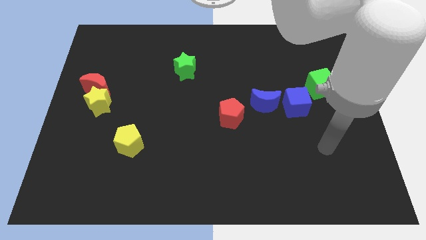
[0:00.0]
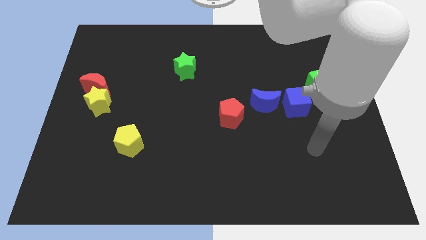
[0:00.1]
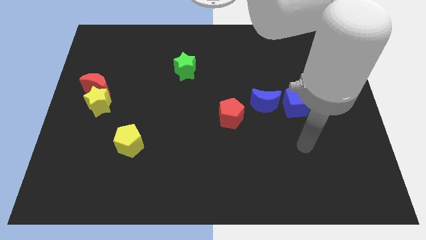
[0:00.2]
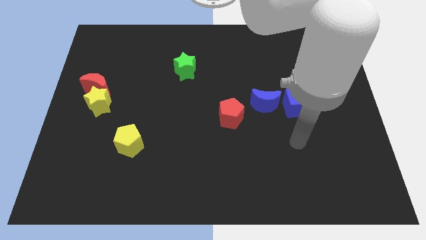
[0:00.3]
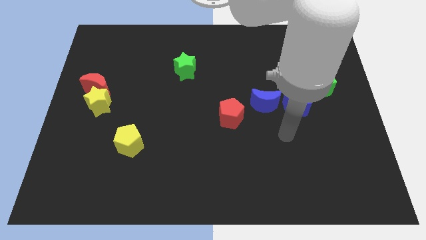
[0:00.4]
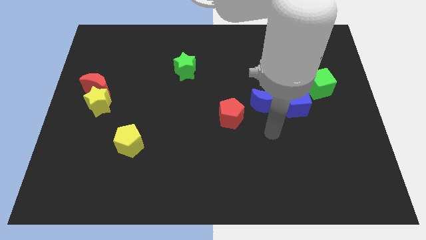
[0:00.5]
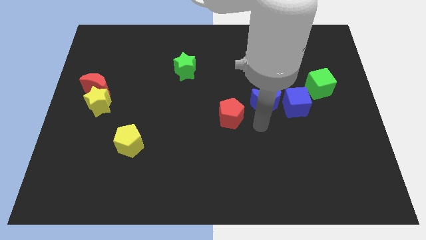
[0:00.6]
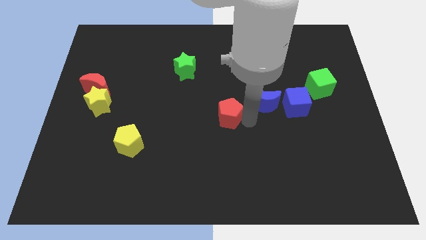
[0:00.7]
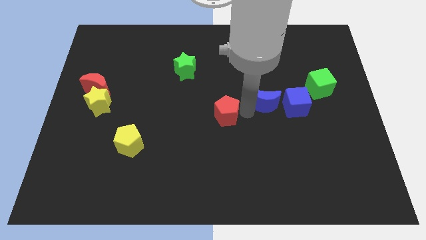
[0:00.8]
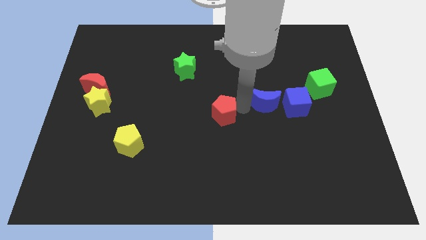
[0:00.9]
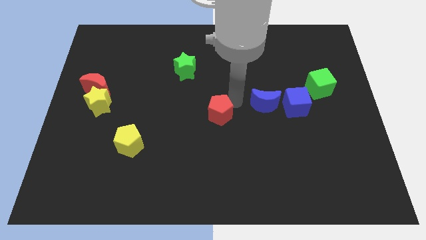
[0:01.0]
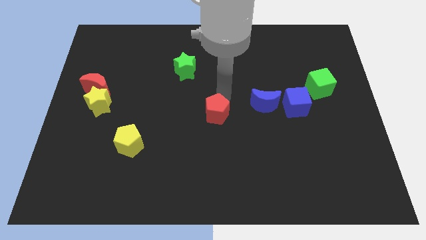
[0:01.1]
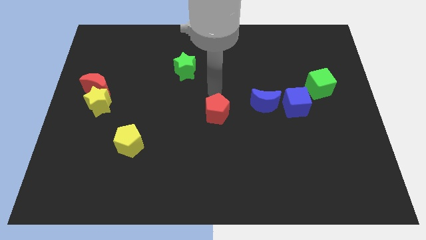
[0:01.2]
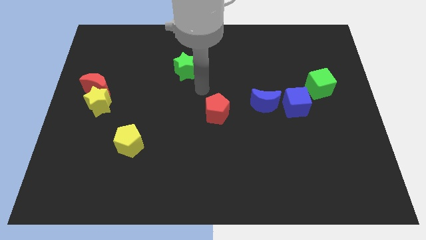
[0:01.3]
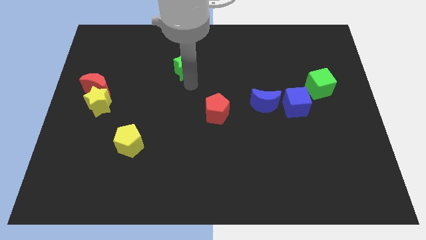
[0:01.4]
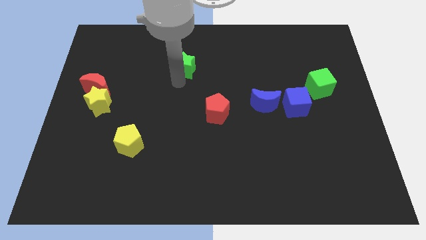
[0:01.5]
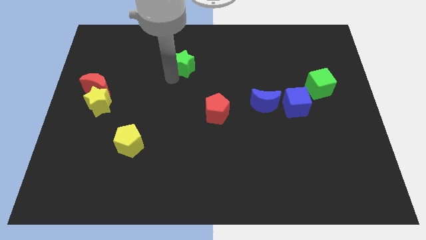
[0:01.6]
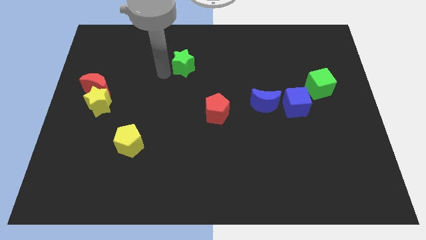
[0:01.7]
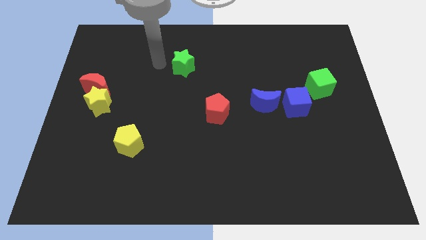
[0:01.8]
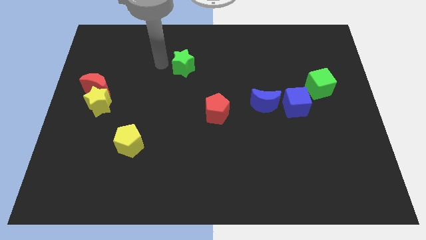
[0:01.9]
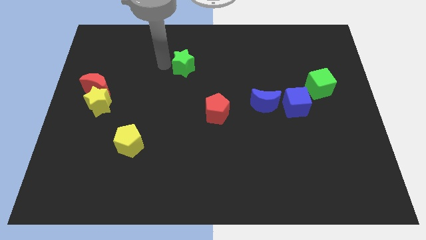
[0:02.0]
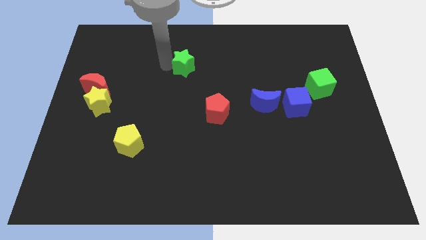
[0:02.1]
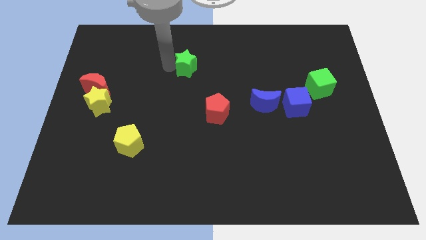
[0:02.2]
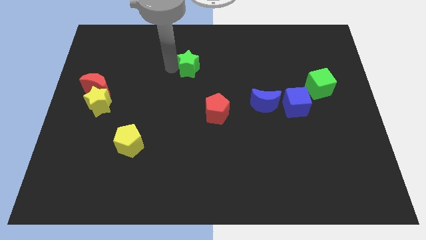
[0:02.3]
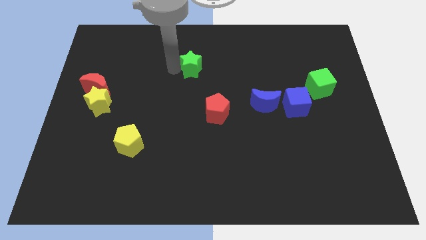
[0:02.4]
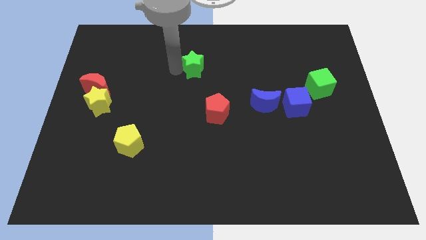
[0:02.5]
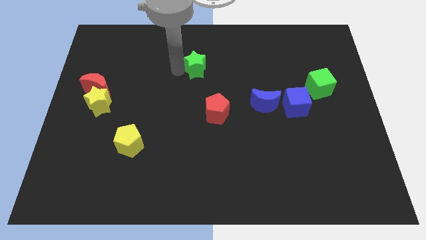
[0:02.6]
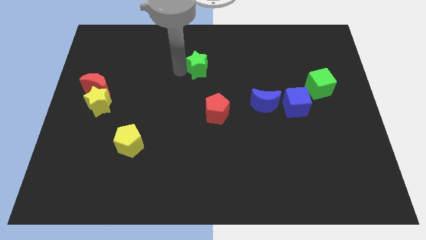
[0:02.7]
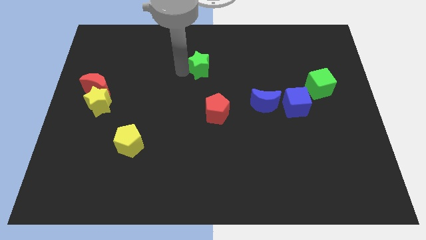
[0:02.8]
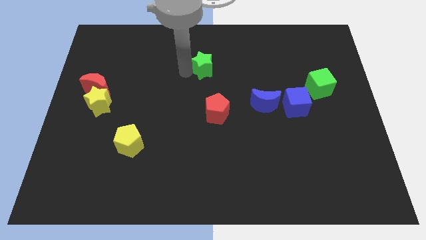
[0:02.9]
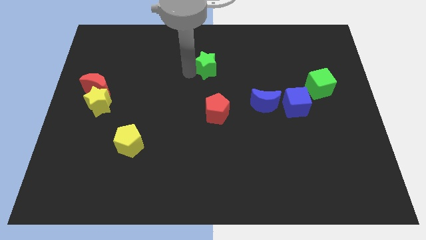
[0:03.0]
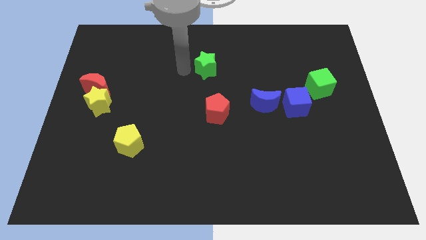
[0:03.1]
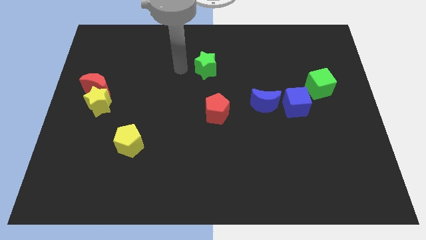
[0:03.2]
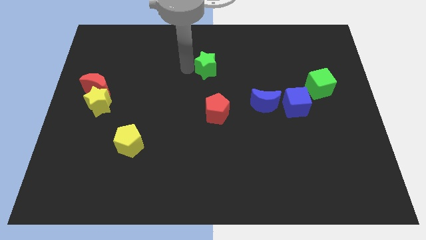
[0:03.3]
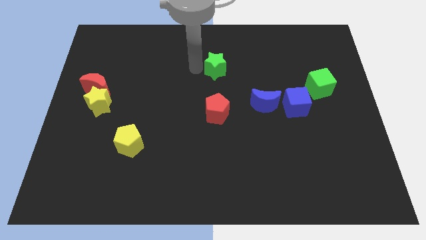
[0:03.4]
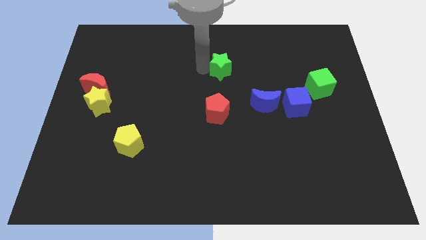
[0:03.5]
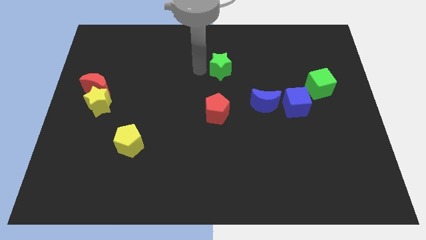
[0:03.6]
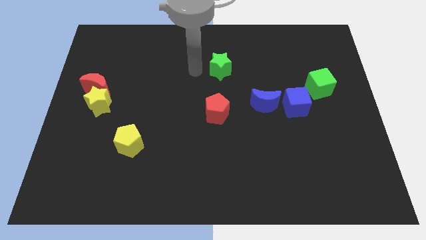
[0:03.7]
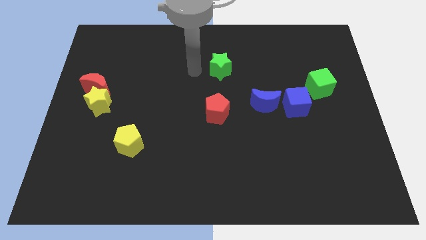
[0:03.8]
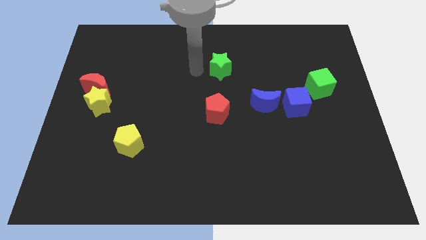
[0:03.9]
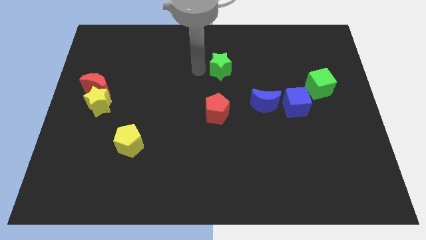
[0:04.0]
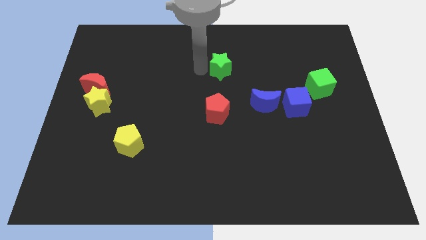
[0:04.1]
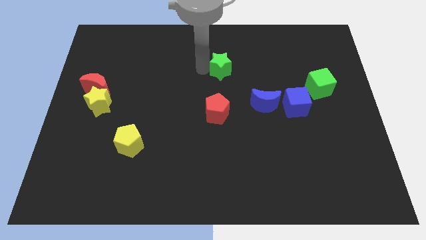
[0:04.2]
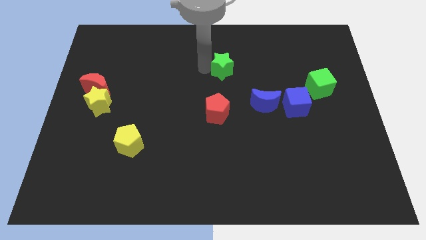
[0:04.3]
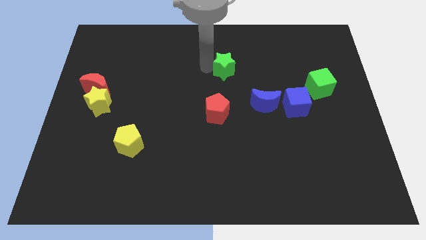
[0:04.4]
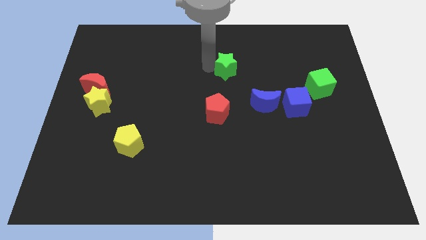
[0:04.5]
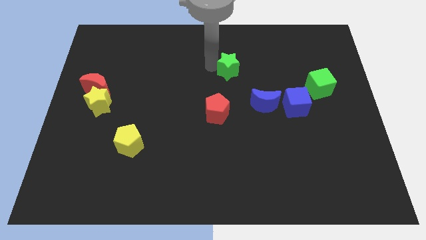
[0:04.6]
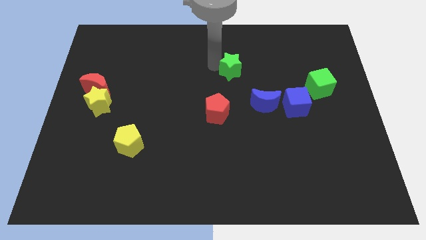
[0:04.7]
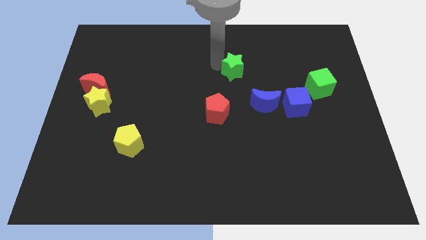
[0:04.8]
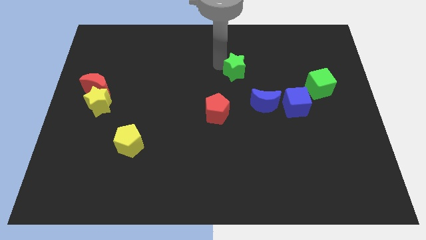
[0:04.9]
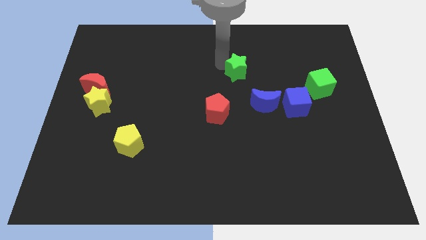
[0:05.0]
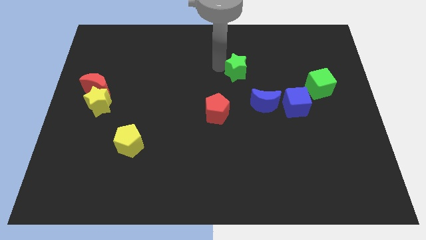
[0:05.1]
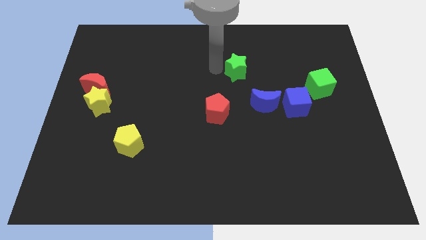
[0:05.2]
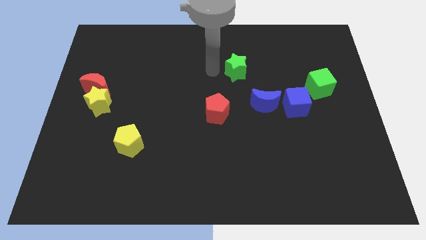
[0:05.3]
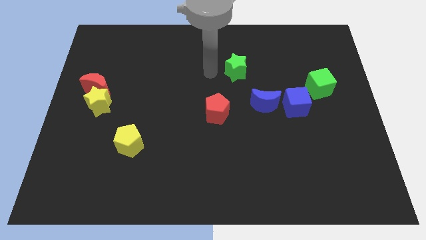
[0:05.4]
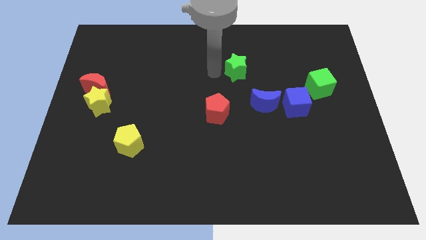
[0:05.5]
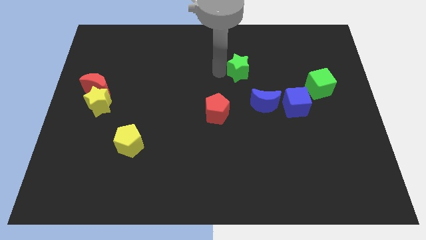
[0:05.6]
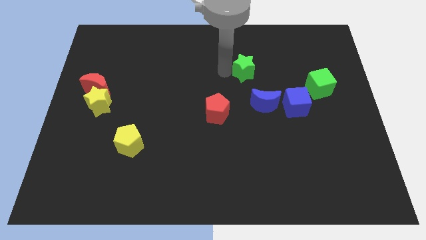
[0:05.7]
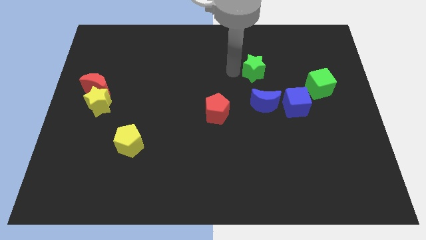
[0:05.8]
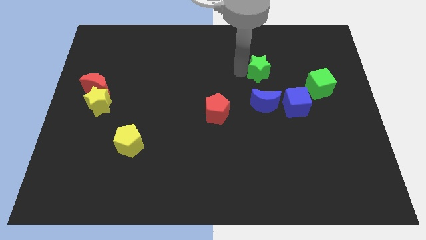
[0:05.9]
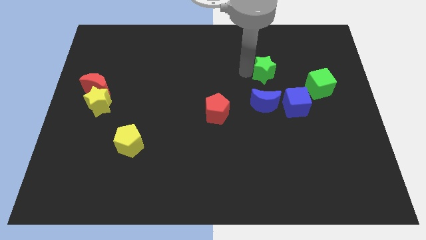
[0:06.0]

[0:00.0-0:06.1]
push the green star right

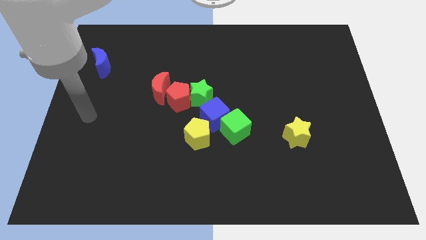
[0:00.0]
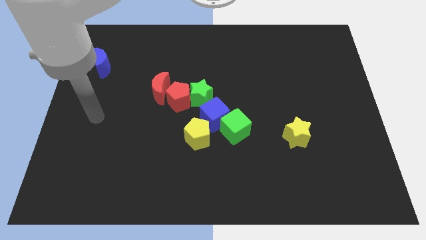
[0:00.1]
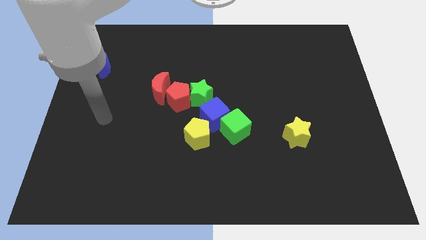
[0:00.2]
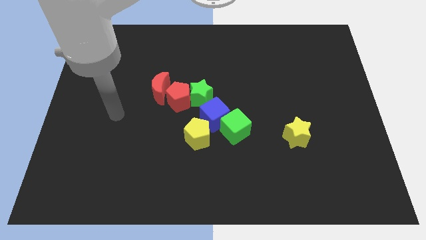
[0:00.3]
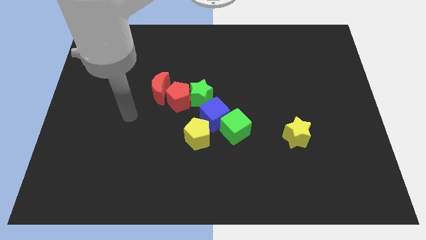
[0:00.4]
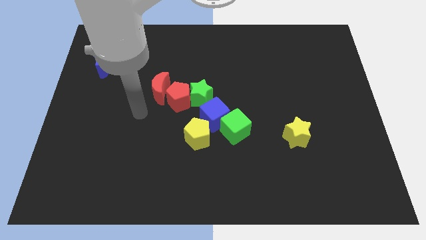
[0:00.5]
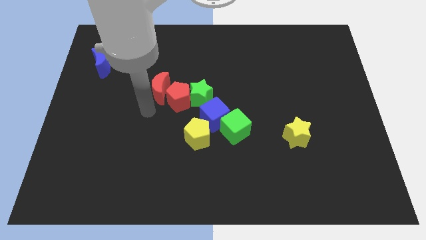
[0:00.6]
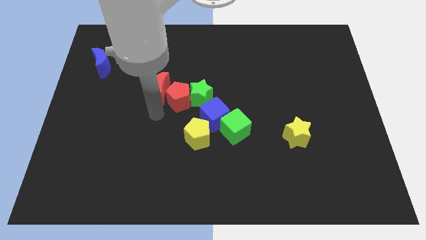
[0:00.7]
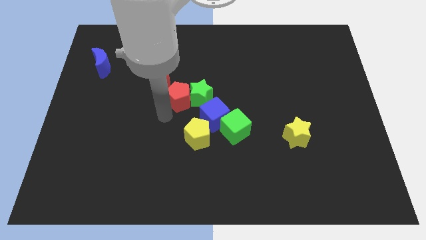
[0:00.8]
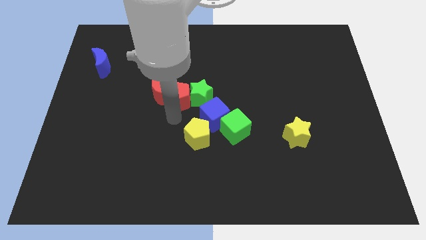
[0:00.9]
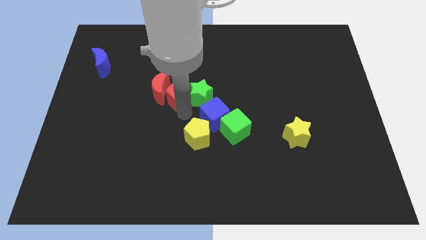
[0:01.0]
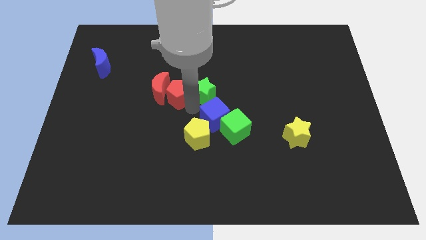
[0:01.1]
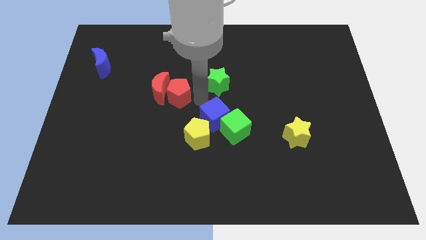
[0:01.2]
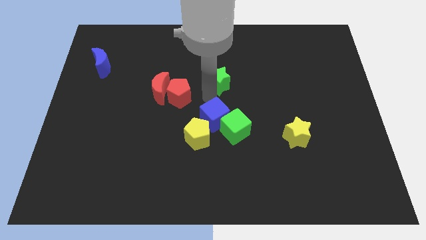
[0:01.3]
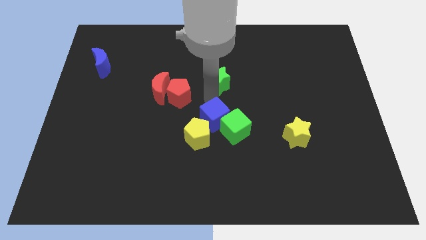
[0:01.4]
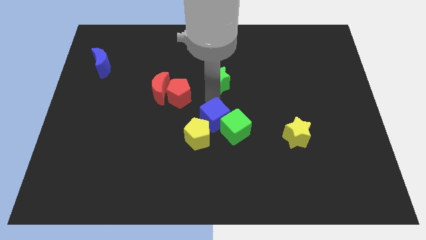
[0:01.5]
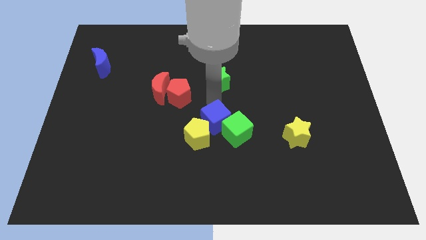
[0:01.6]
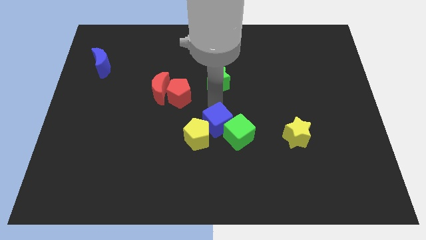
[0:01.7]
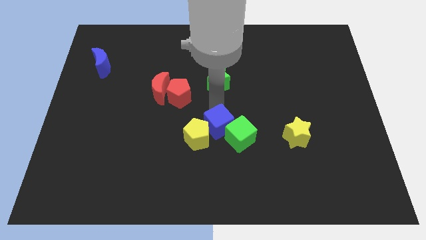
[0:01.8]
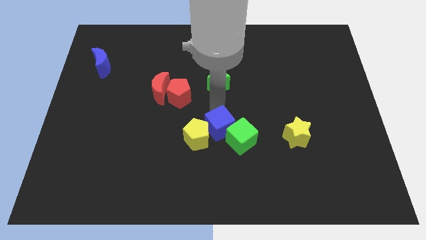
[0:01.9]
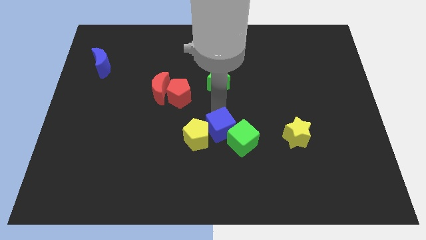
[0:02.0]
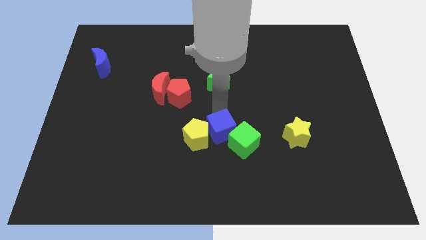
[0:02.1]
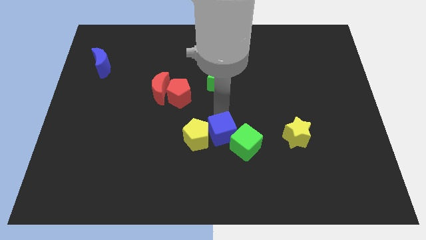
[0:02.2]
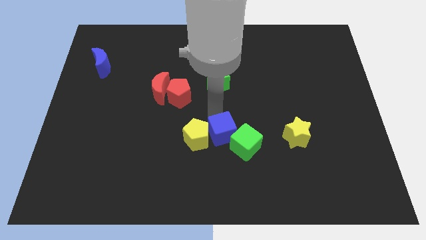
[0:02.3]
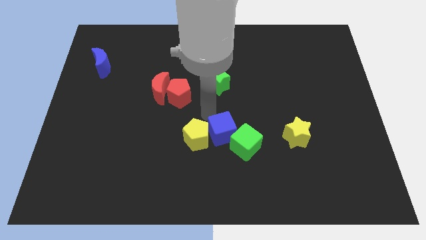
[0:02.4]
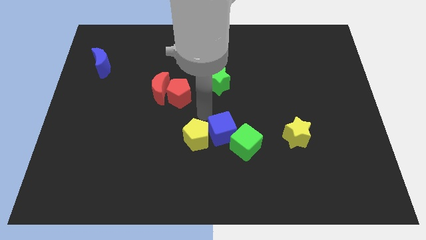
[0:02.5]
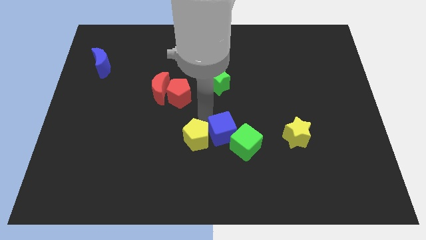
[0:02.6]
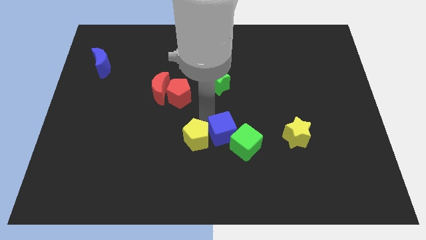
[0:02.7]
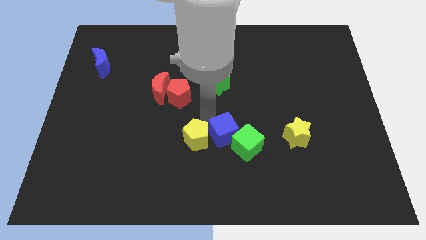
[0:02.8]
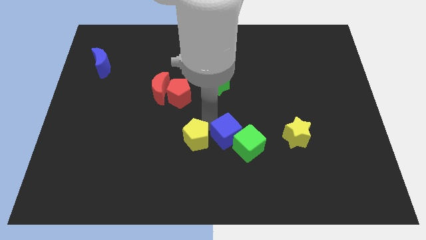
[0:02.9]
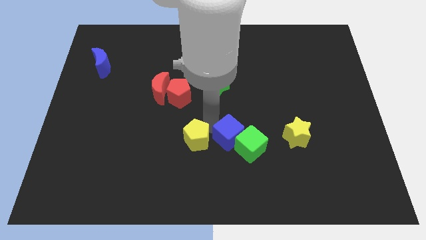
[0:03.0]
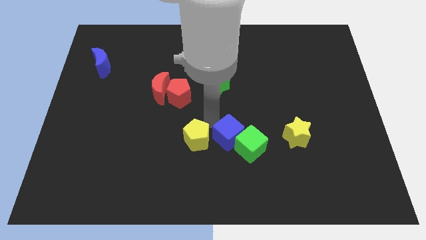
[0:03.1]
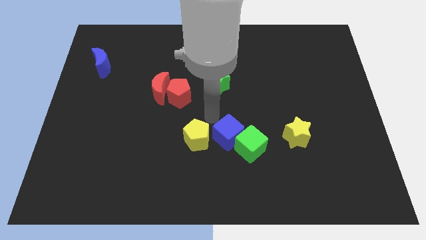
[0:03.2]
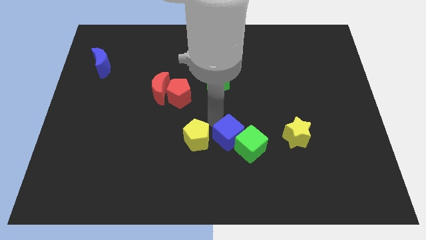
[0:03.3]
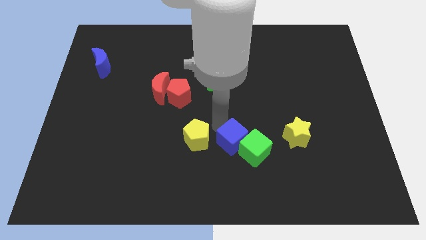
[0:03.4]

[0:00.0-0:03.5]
slightly move the blue cube diagonally down and right
